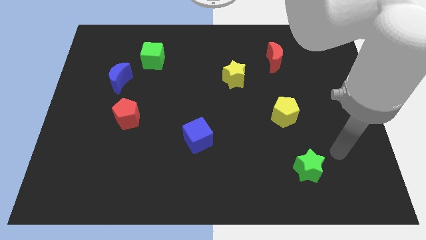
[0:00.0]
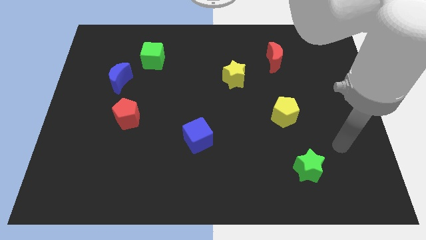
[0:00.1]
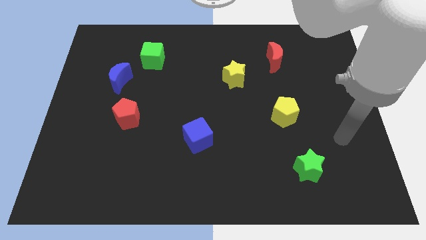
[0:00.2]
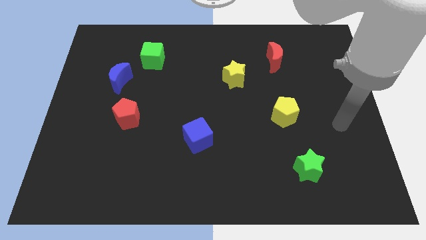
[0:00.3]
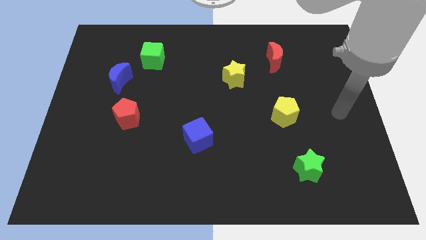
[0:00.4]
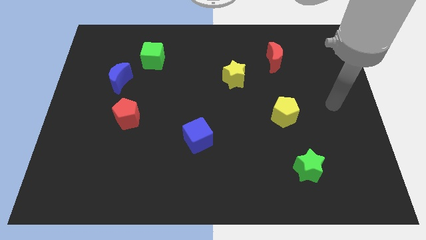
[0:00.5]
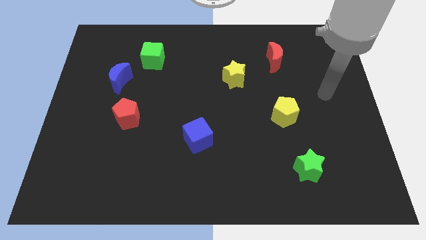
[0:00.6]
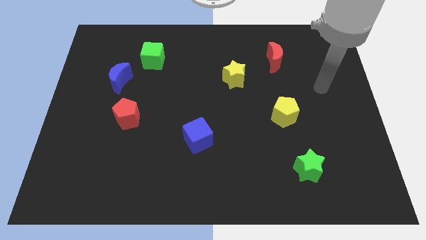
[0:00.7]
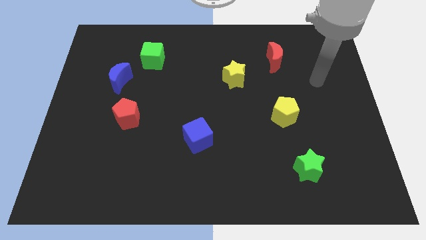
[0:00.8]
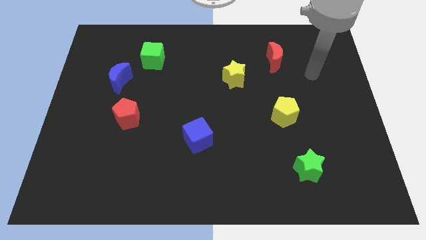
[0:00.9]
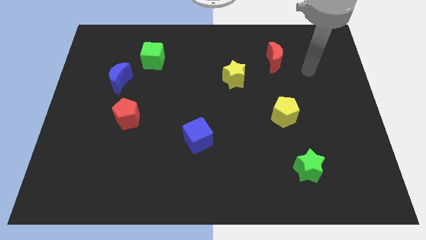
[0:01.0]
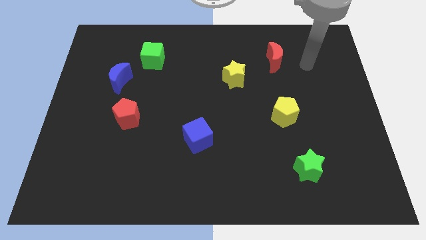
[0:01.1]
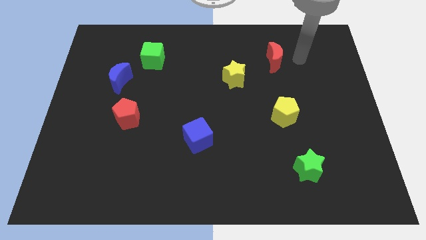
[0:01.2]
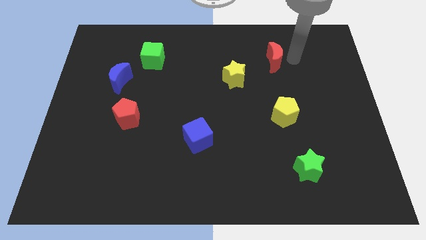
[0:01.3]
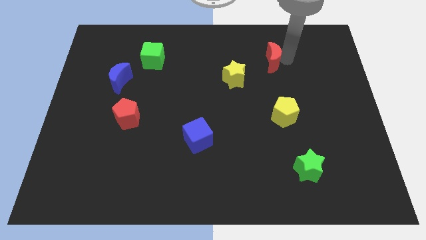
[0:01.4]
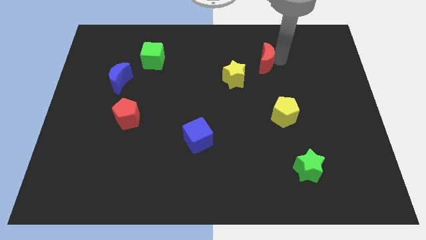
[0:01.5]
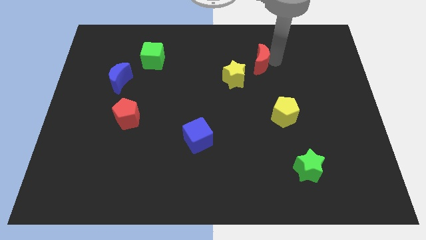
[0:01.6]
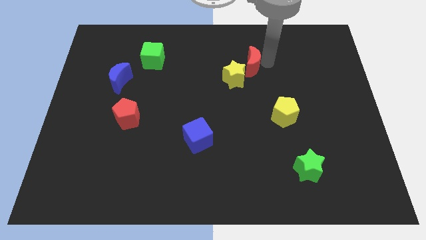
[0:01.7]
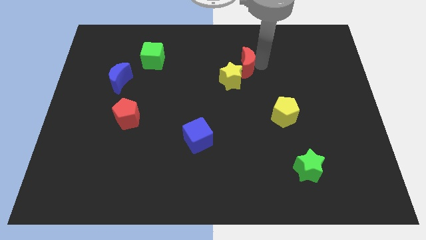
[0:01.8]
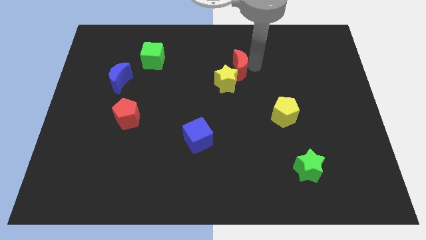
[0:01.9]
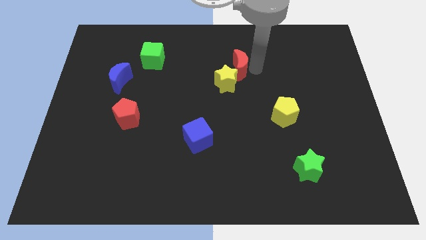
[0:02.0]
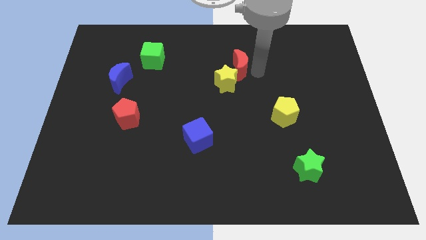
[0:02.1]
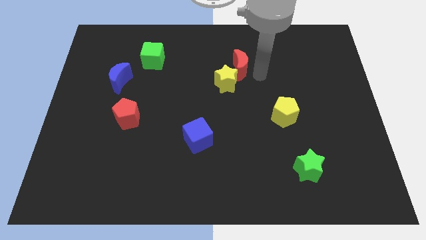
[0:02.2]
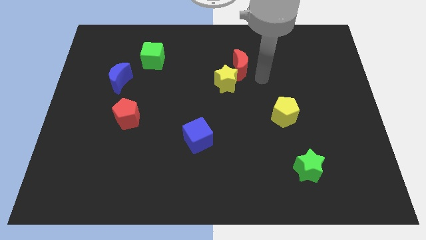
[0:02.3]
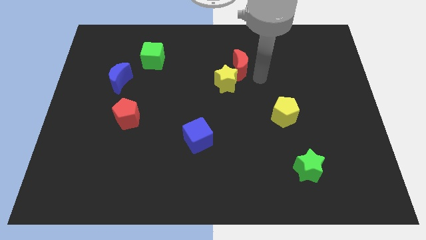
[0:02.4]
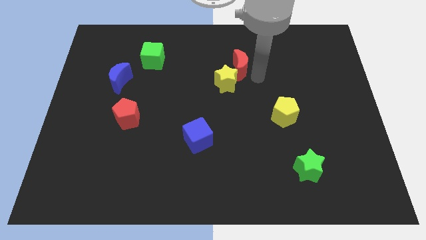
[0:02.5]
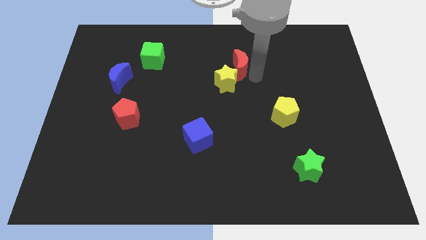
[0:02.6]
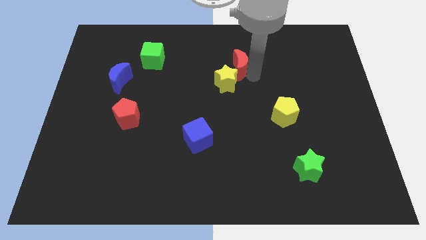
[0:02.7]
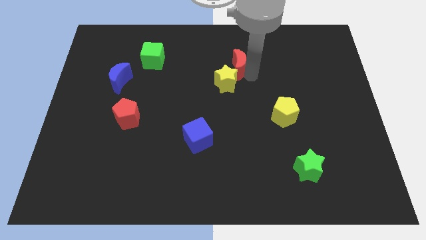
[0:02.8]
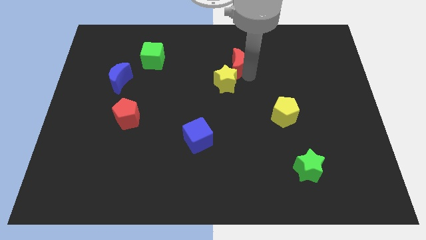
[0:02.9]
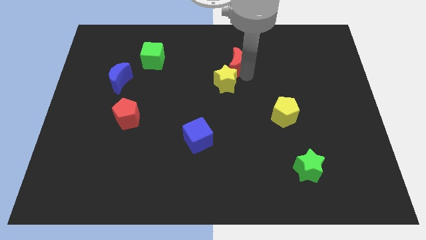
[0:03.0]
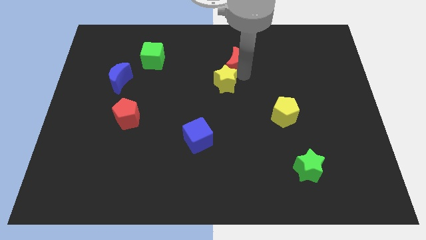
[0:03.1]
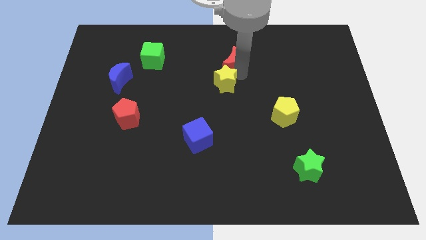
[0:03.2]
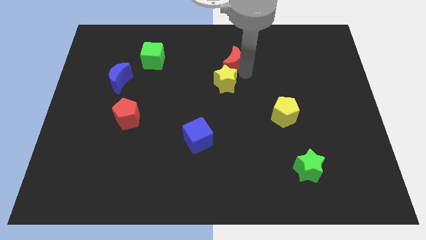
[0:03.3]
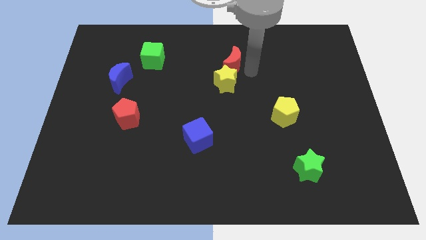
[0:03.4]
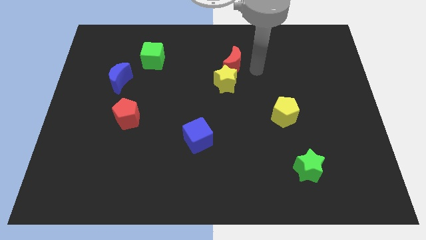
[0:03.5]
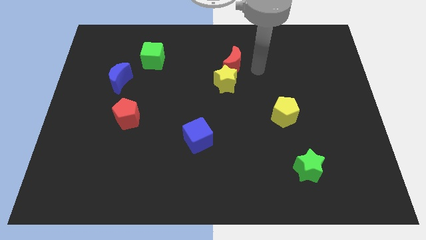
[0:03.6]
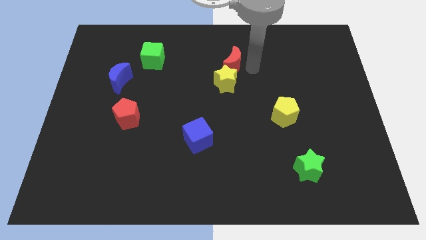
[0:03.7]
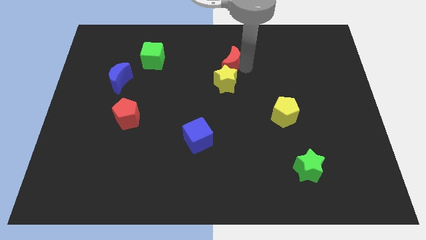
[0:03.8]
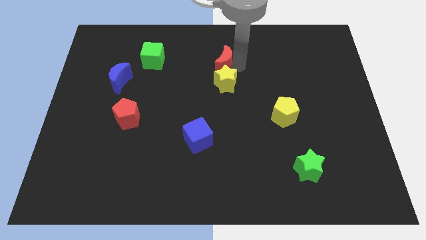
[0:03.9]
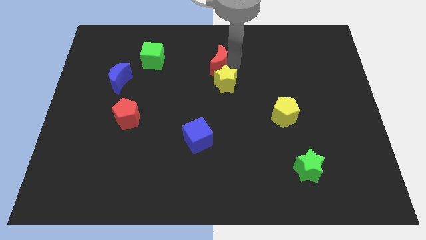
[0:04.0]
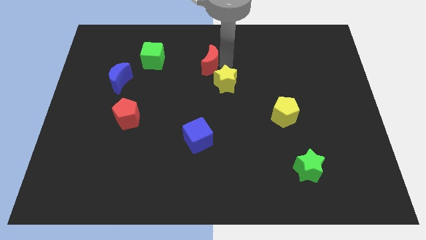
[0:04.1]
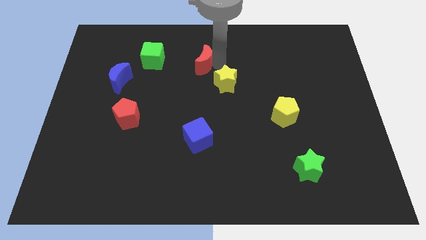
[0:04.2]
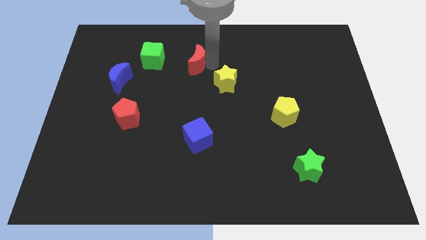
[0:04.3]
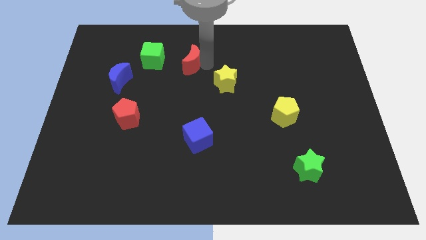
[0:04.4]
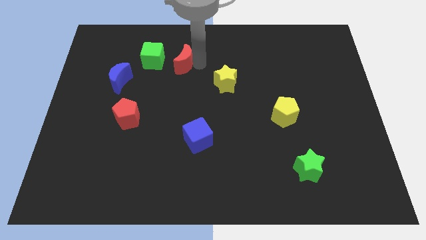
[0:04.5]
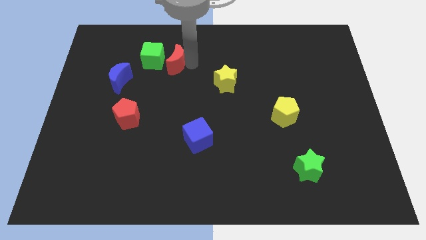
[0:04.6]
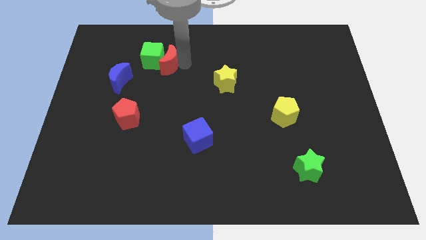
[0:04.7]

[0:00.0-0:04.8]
push the red moon close to the green cube

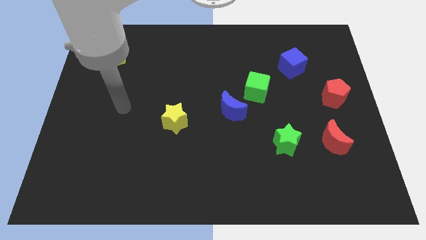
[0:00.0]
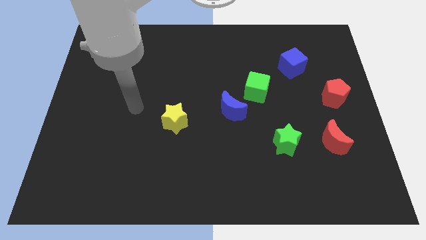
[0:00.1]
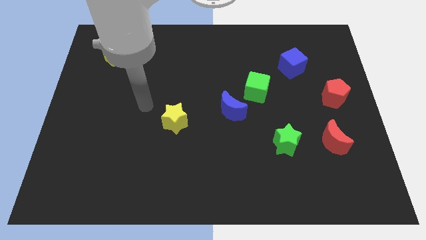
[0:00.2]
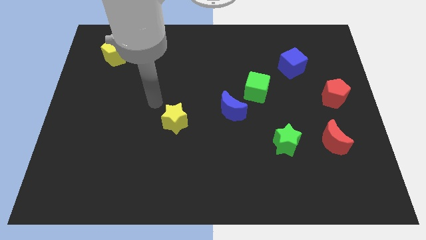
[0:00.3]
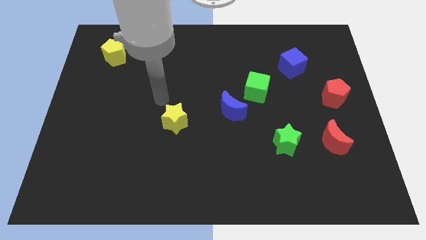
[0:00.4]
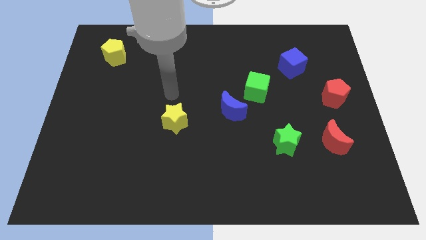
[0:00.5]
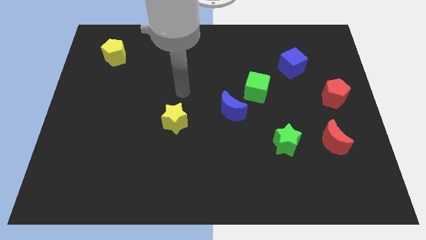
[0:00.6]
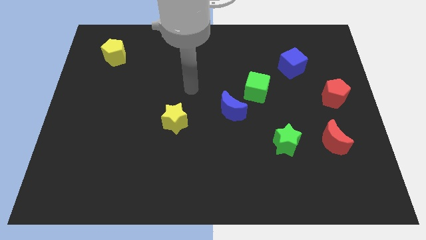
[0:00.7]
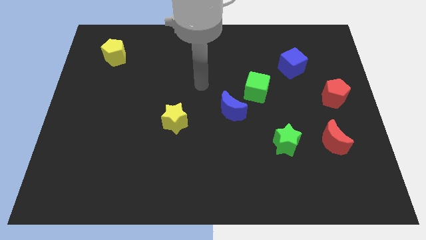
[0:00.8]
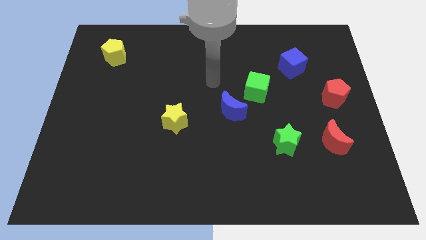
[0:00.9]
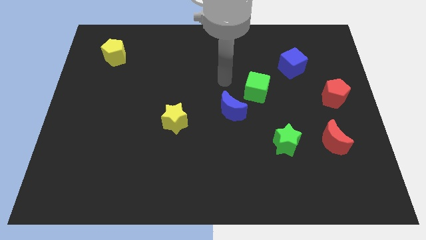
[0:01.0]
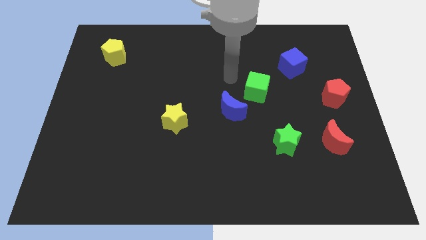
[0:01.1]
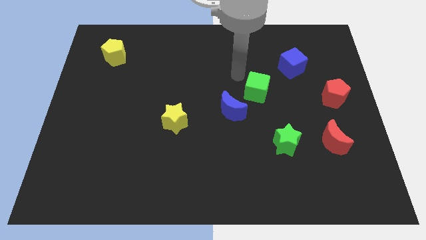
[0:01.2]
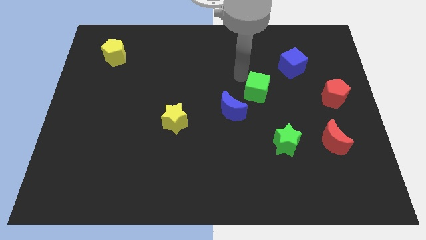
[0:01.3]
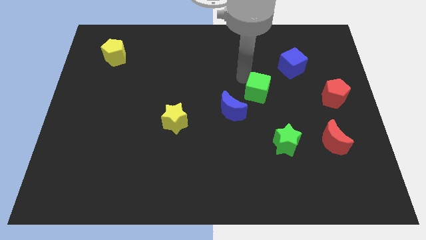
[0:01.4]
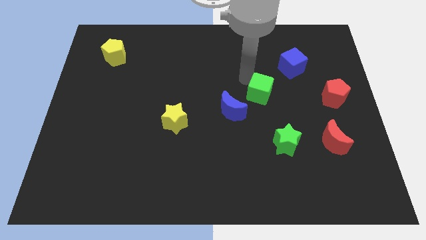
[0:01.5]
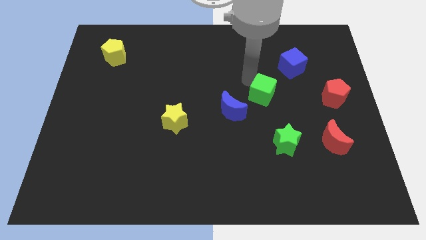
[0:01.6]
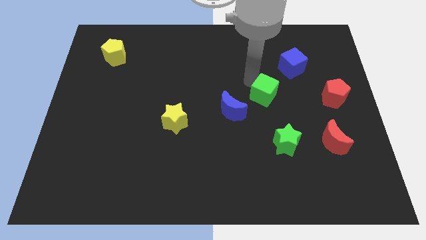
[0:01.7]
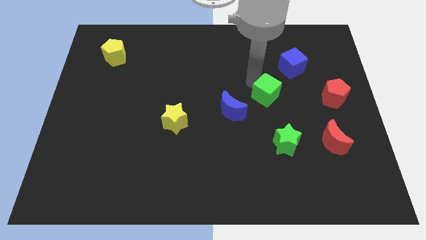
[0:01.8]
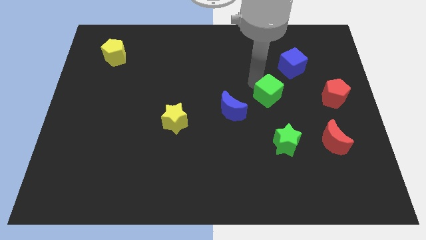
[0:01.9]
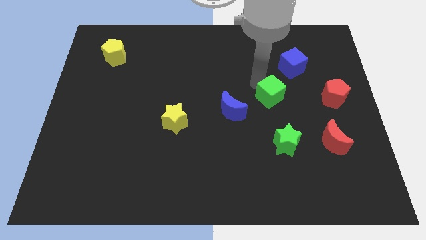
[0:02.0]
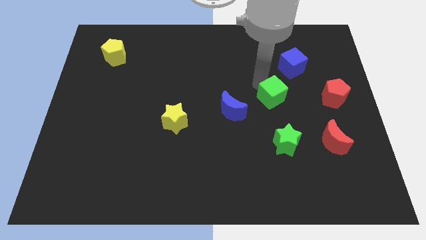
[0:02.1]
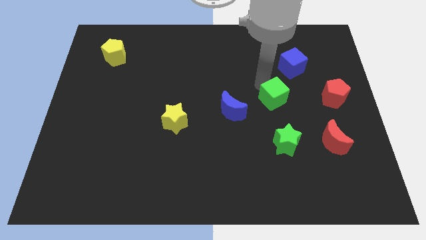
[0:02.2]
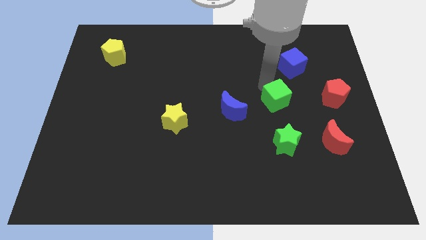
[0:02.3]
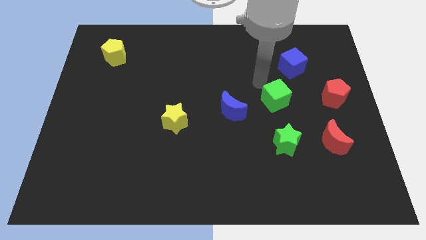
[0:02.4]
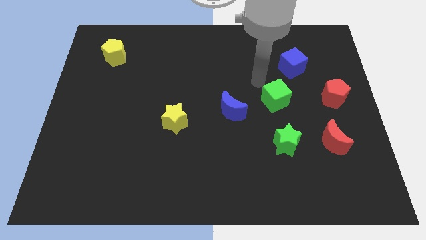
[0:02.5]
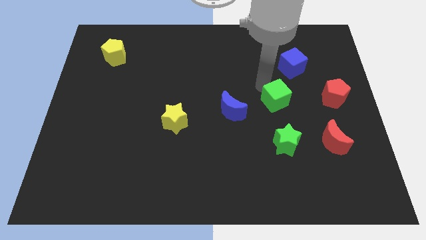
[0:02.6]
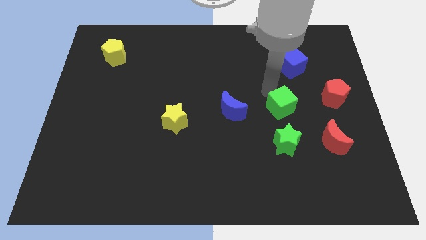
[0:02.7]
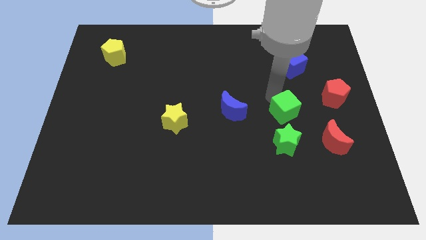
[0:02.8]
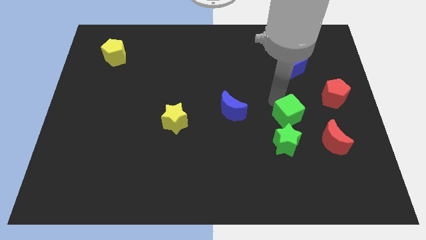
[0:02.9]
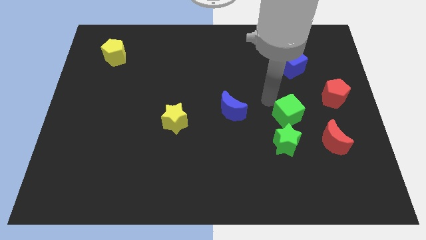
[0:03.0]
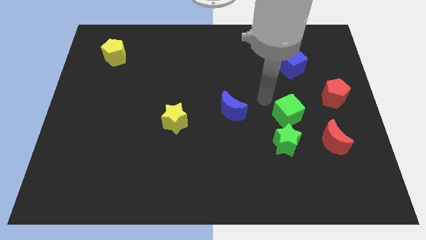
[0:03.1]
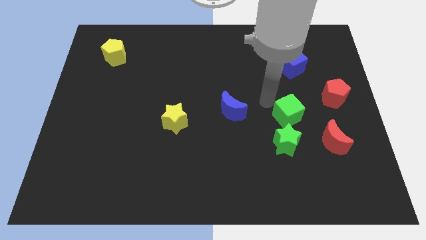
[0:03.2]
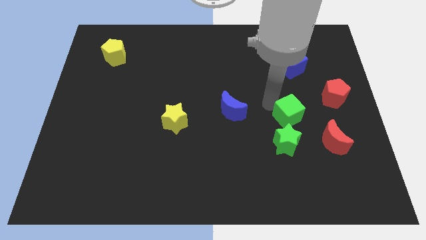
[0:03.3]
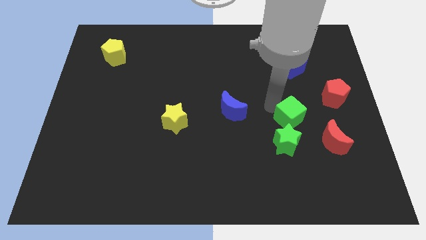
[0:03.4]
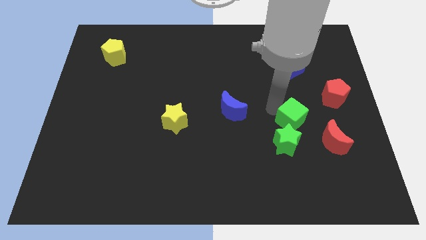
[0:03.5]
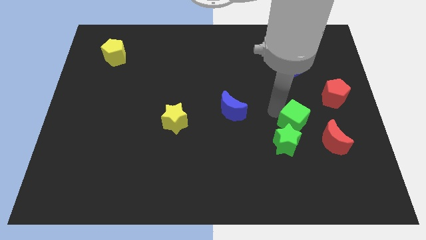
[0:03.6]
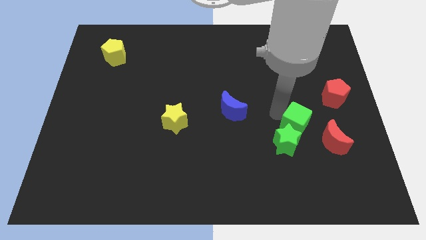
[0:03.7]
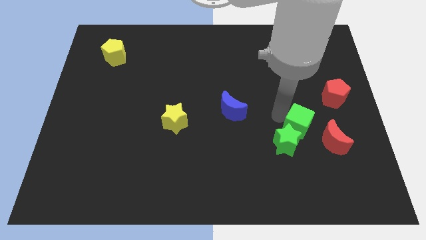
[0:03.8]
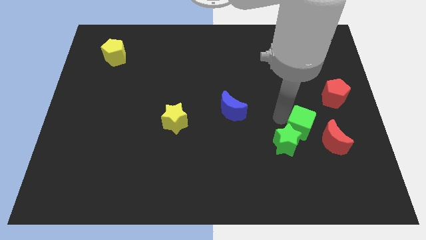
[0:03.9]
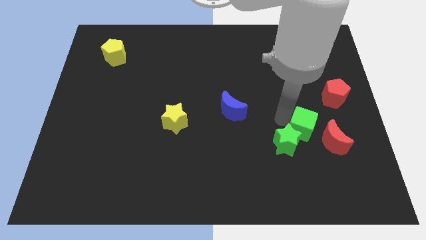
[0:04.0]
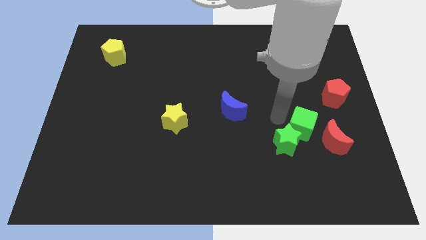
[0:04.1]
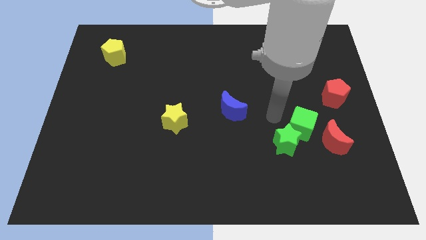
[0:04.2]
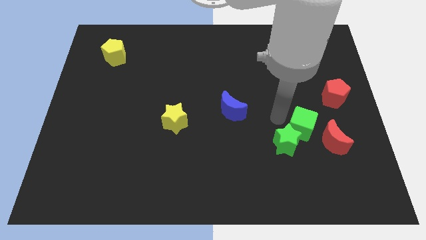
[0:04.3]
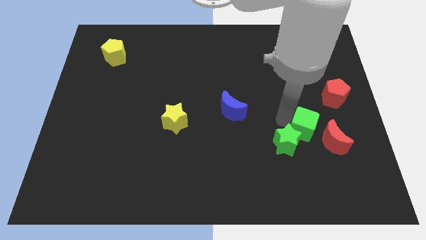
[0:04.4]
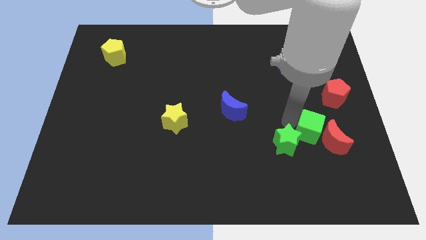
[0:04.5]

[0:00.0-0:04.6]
slide the green cube towards the red moon
